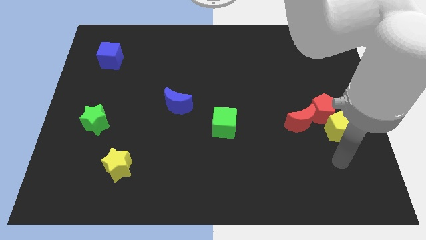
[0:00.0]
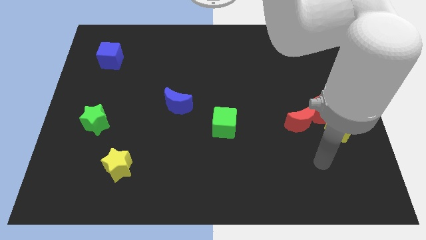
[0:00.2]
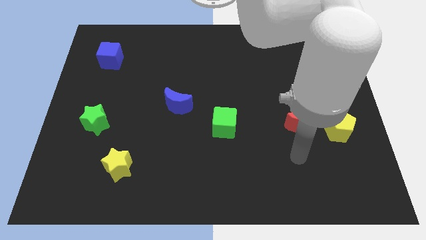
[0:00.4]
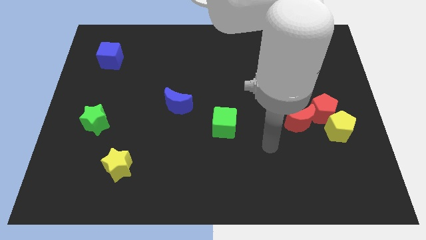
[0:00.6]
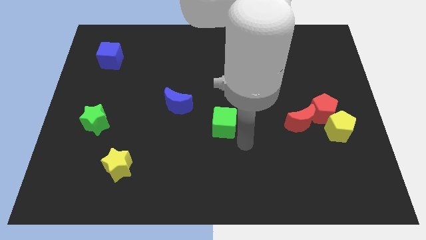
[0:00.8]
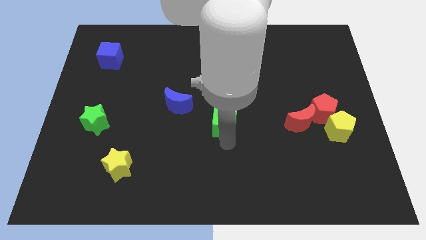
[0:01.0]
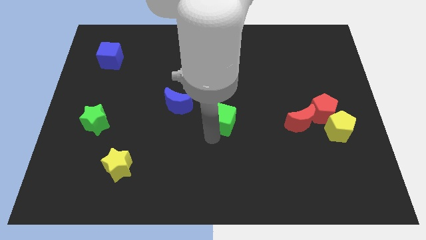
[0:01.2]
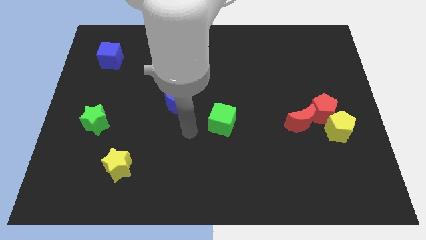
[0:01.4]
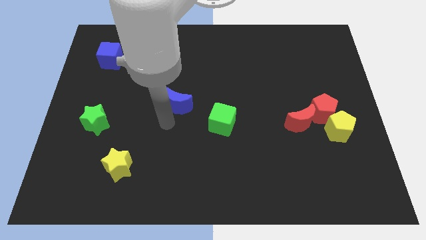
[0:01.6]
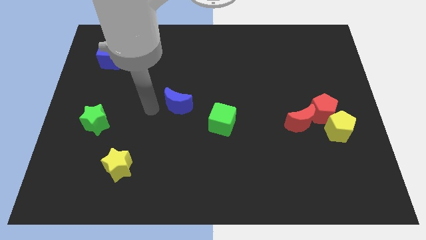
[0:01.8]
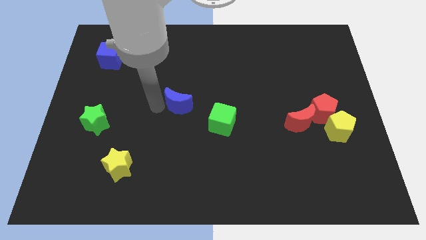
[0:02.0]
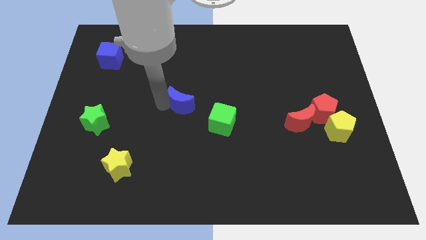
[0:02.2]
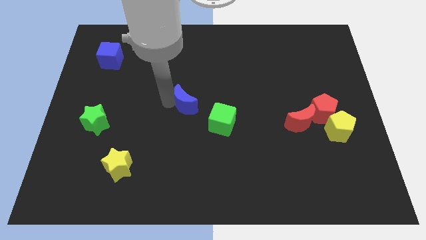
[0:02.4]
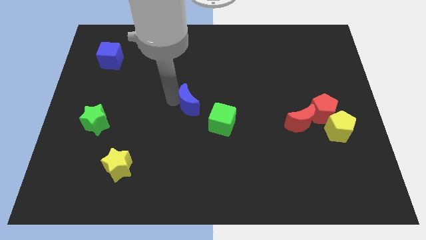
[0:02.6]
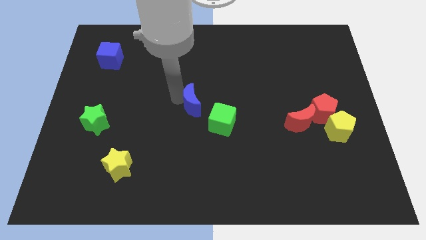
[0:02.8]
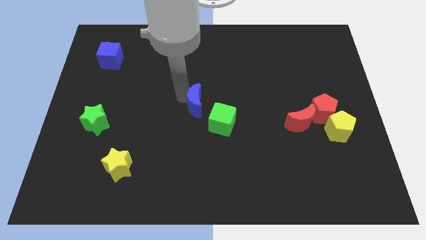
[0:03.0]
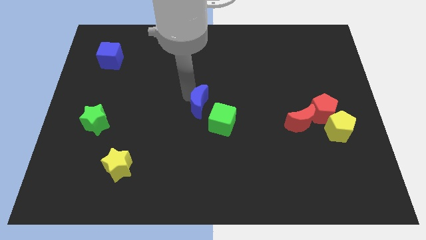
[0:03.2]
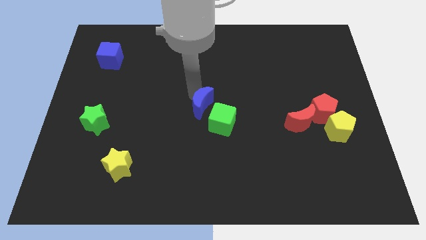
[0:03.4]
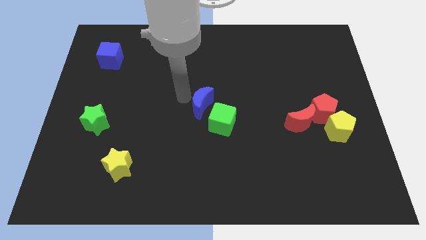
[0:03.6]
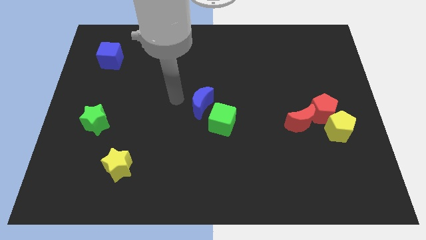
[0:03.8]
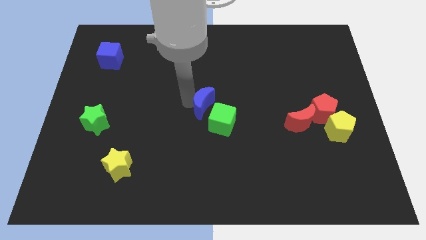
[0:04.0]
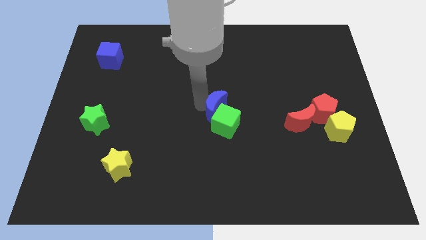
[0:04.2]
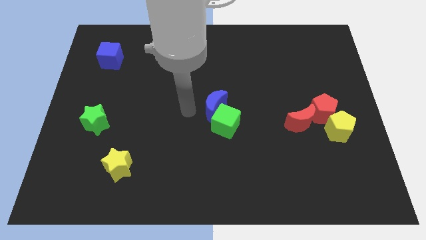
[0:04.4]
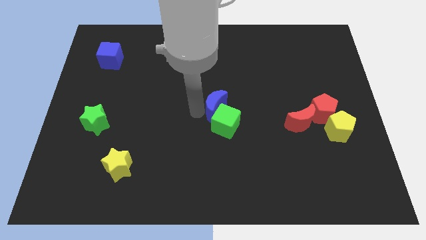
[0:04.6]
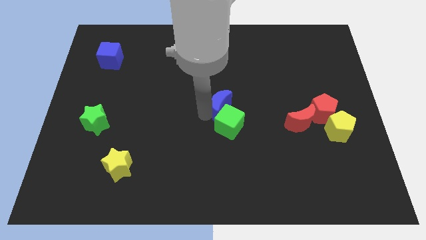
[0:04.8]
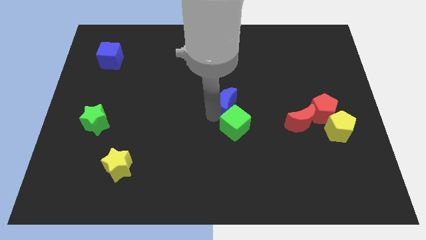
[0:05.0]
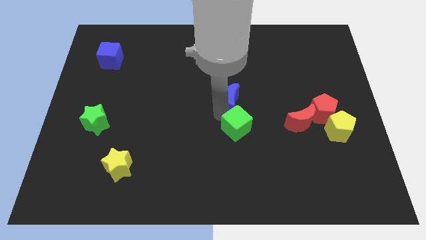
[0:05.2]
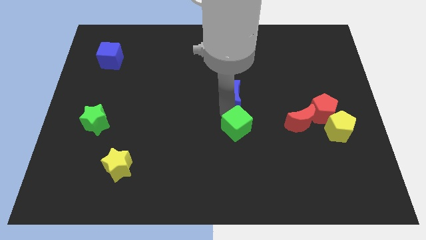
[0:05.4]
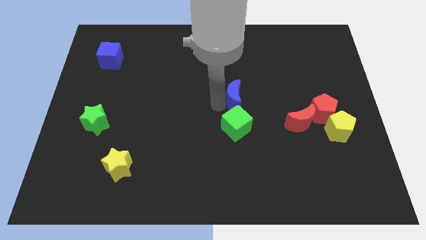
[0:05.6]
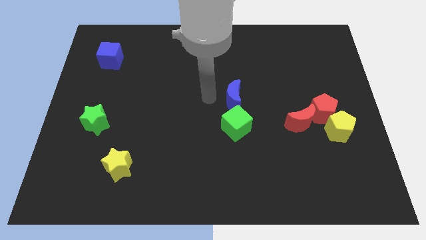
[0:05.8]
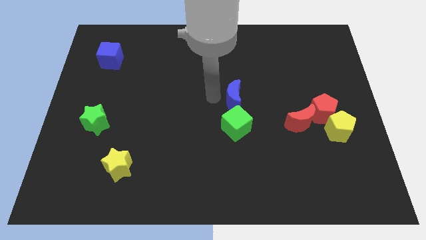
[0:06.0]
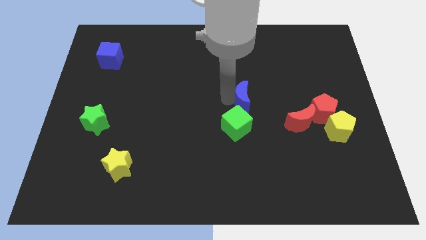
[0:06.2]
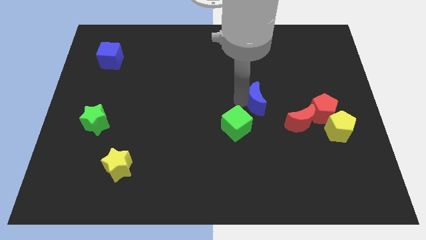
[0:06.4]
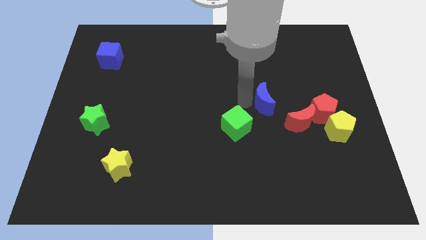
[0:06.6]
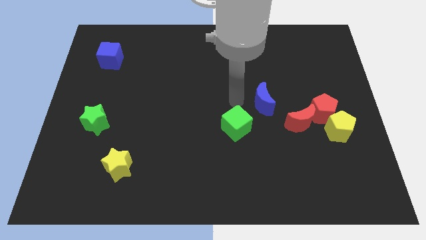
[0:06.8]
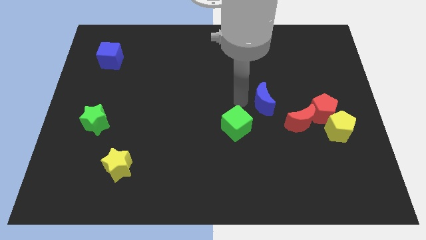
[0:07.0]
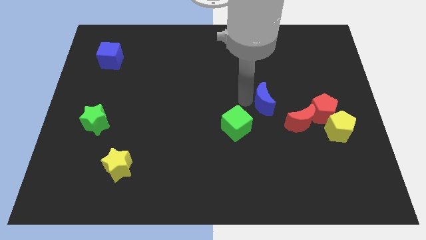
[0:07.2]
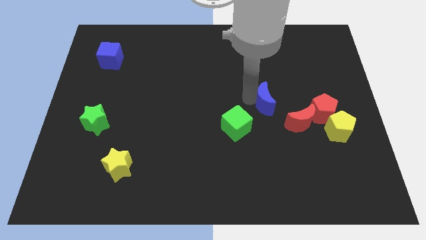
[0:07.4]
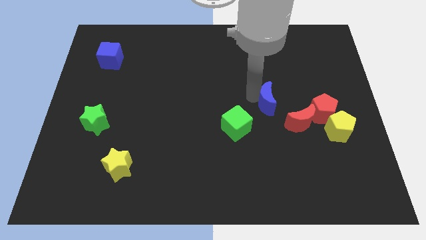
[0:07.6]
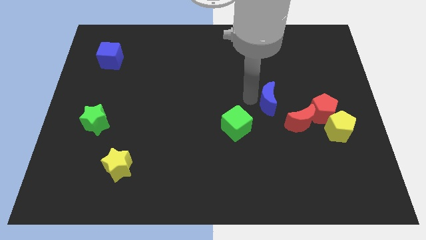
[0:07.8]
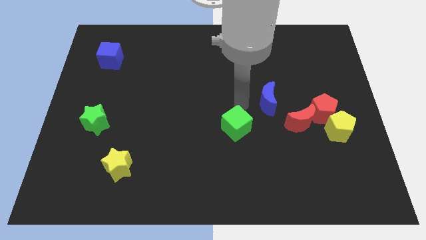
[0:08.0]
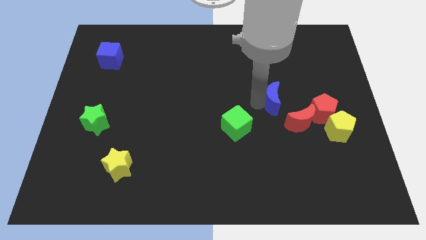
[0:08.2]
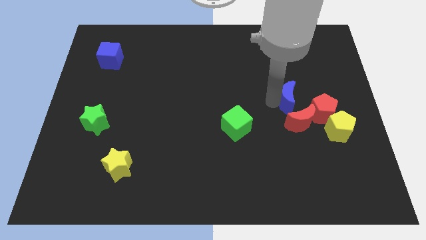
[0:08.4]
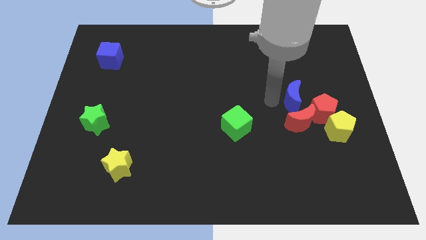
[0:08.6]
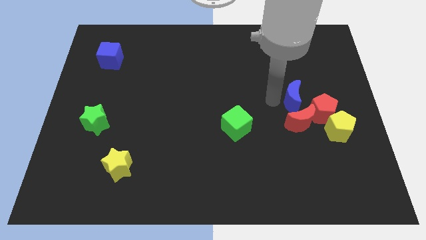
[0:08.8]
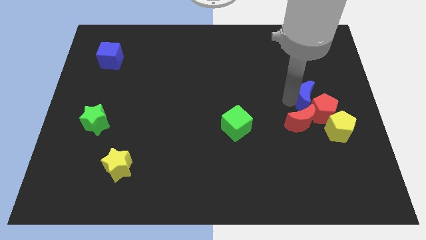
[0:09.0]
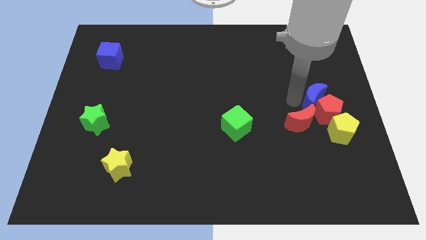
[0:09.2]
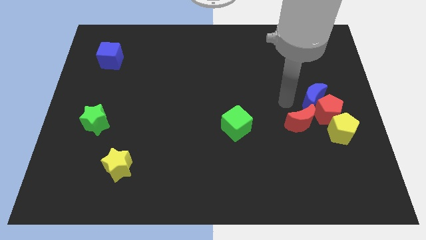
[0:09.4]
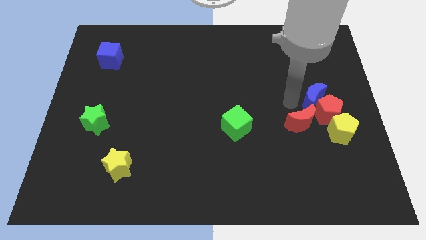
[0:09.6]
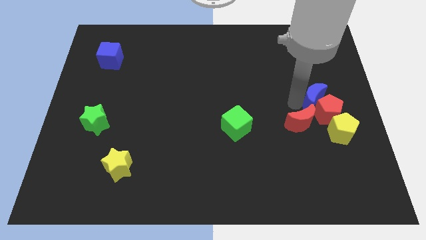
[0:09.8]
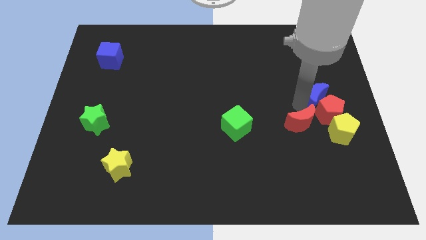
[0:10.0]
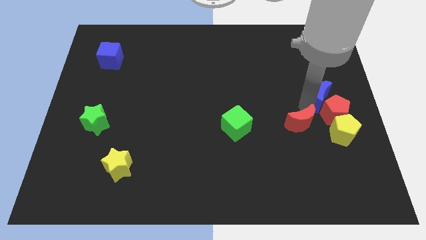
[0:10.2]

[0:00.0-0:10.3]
slide the blue moon to the right side

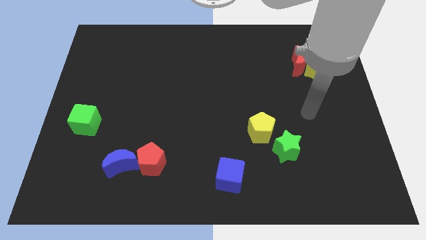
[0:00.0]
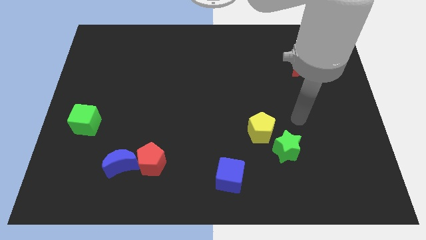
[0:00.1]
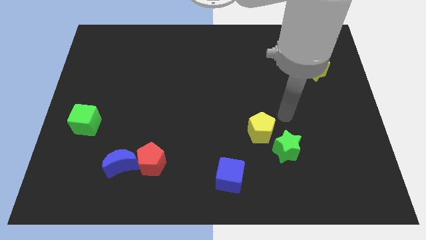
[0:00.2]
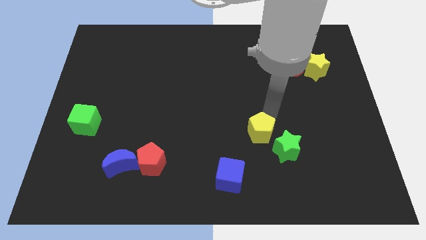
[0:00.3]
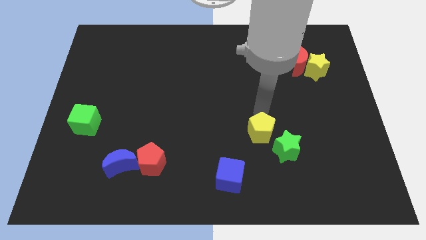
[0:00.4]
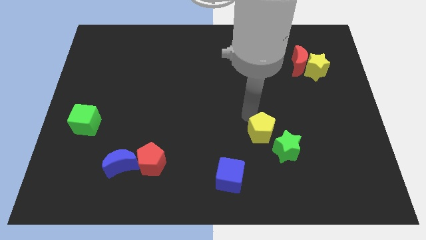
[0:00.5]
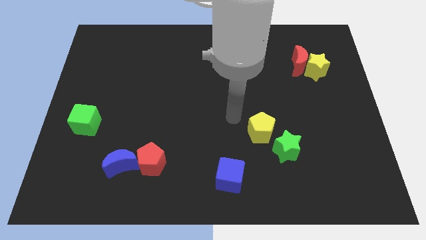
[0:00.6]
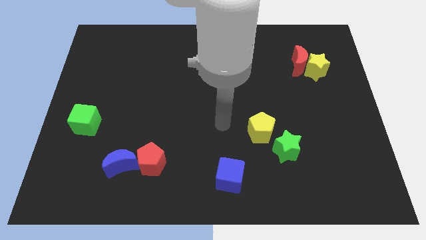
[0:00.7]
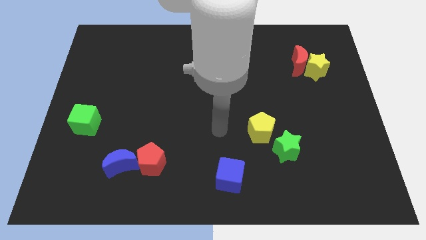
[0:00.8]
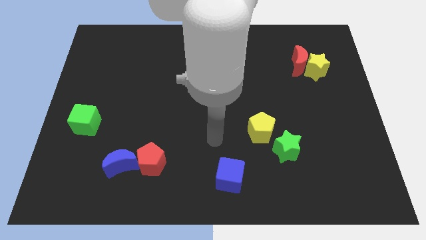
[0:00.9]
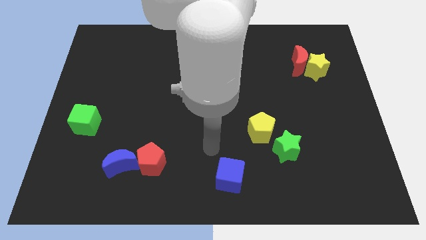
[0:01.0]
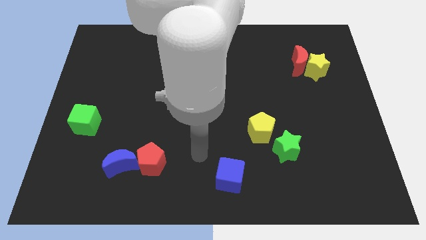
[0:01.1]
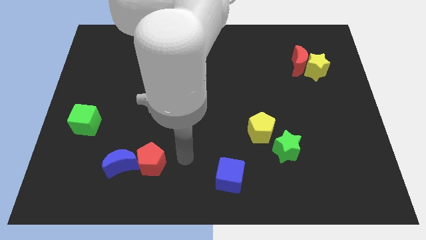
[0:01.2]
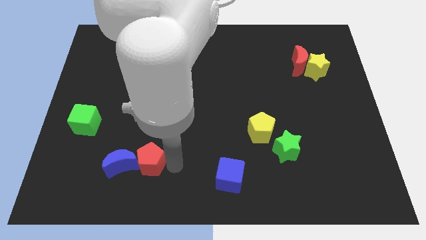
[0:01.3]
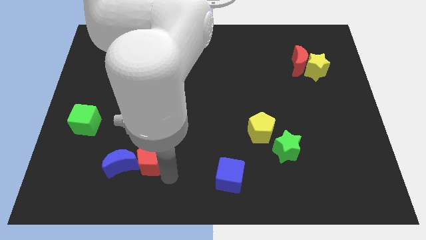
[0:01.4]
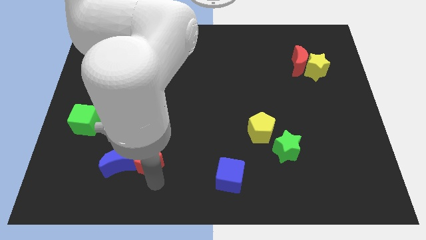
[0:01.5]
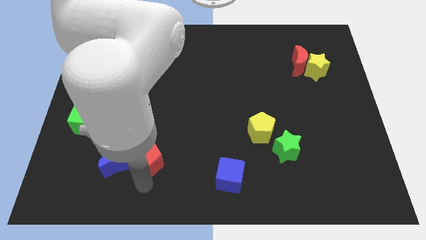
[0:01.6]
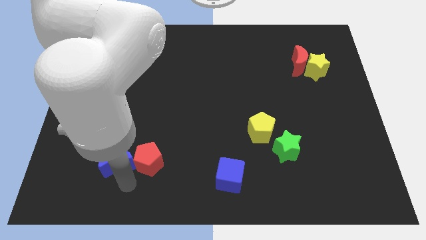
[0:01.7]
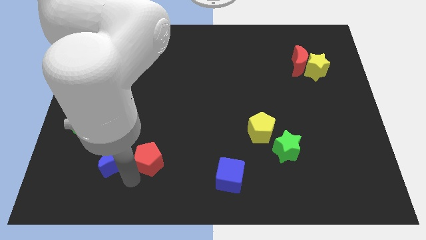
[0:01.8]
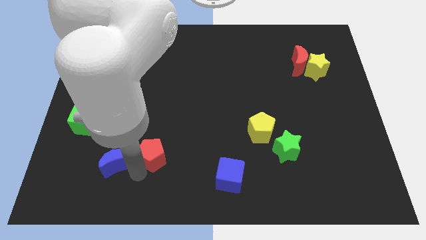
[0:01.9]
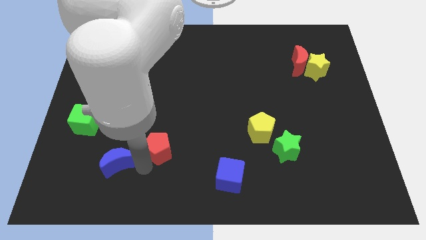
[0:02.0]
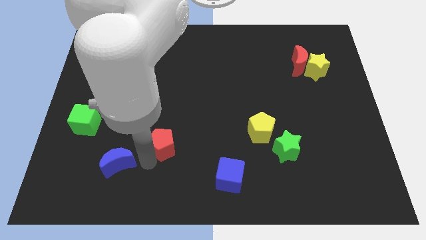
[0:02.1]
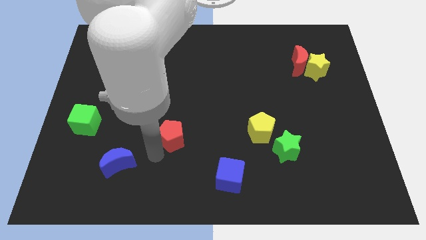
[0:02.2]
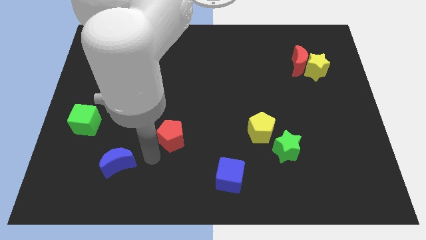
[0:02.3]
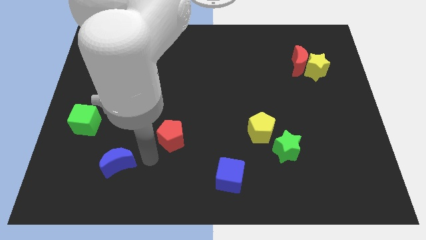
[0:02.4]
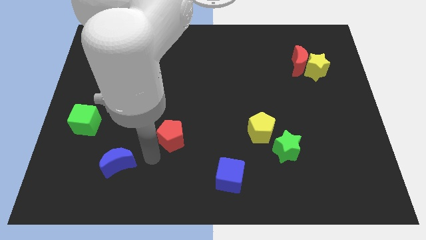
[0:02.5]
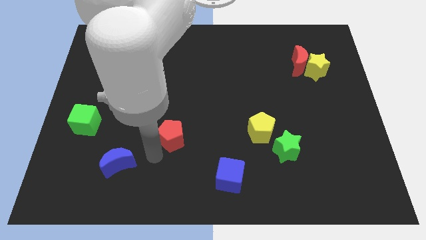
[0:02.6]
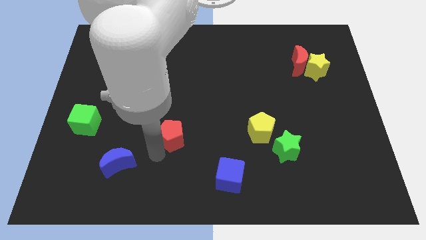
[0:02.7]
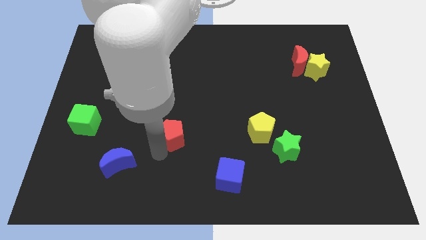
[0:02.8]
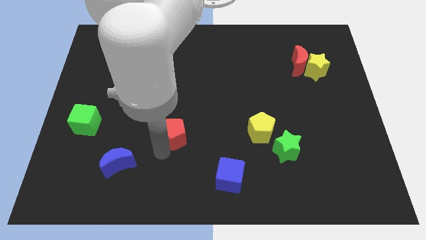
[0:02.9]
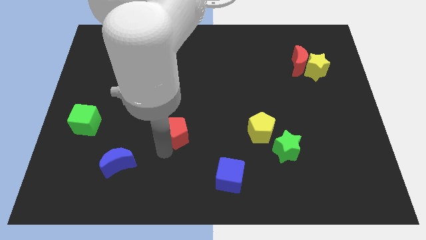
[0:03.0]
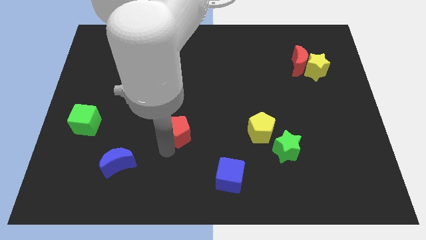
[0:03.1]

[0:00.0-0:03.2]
move the red pentagon to the middle
